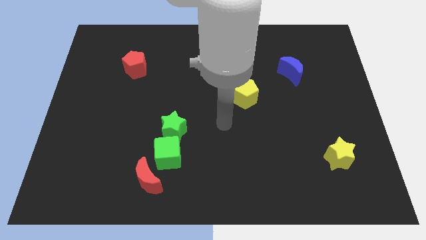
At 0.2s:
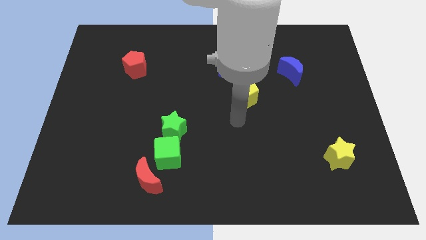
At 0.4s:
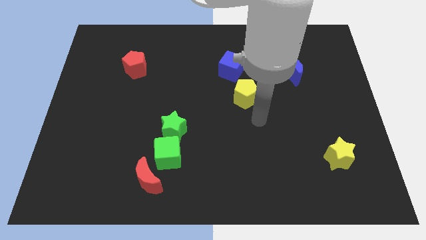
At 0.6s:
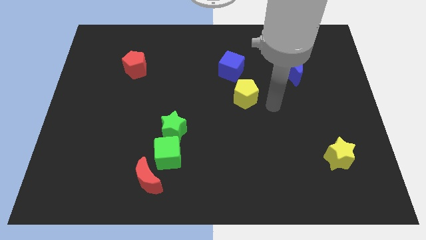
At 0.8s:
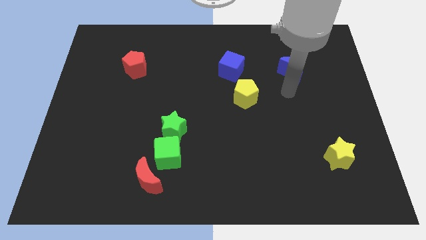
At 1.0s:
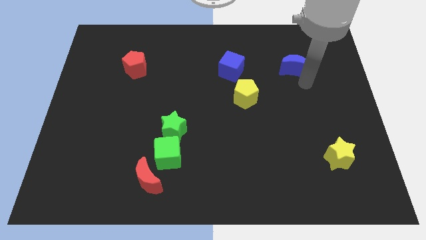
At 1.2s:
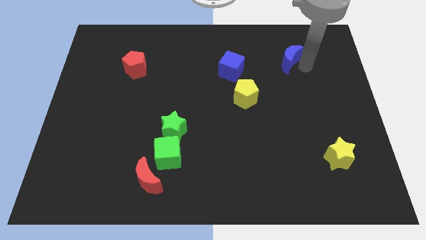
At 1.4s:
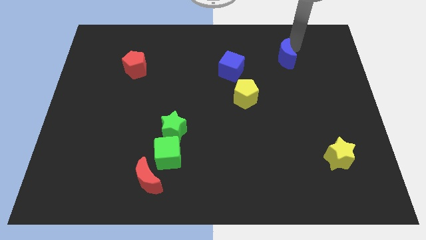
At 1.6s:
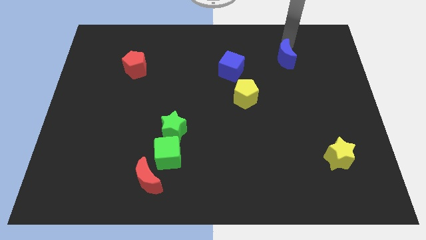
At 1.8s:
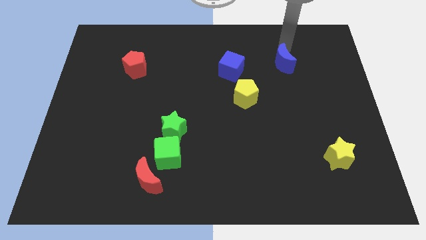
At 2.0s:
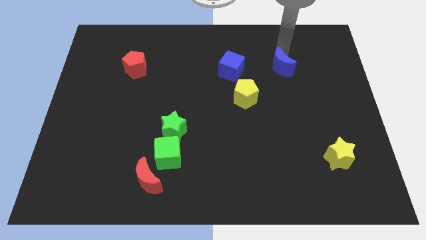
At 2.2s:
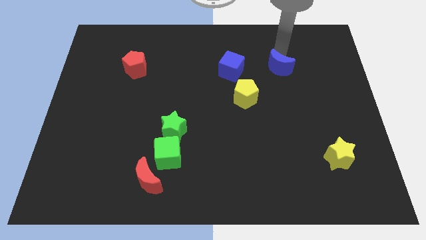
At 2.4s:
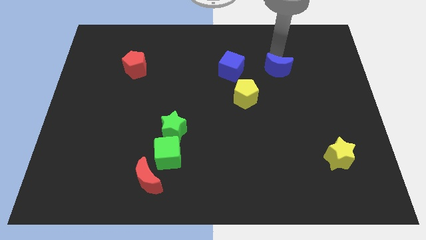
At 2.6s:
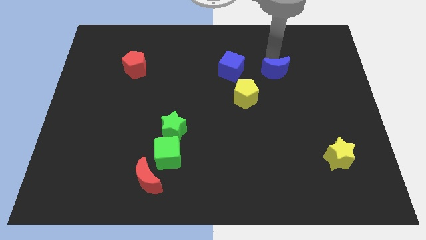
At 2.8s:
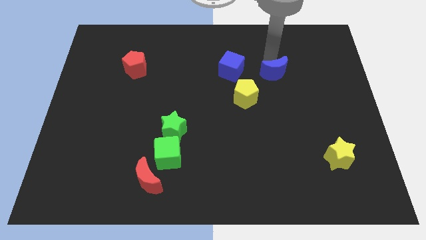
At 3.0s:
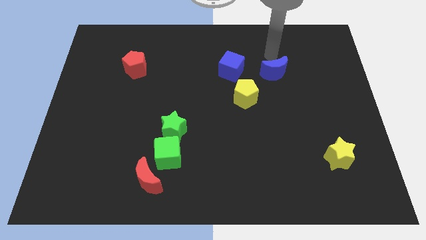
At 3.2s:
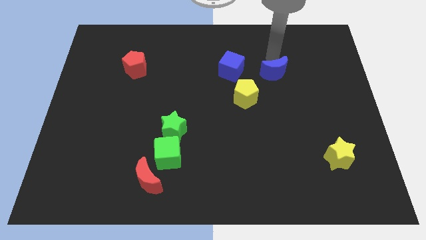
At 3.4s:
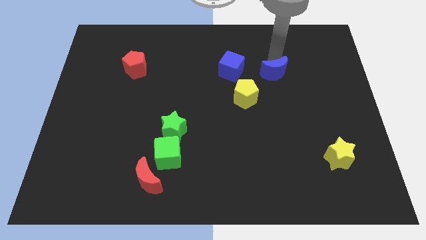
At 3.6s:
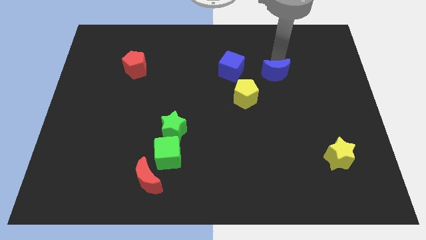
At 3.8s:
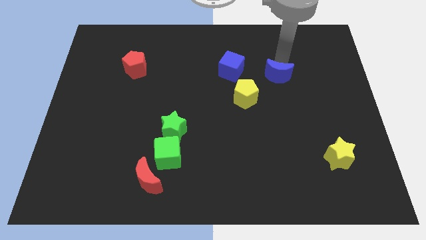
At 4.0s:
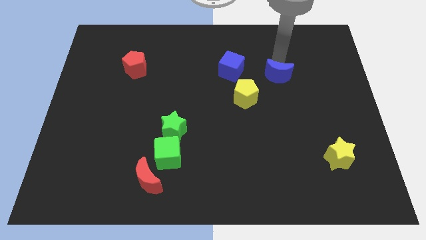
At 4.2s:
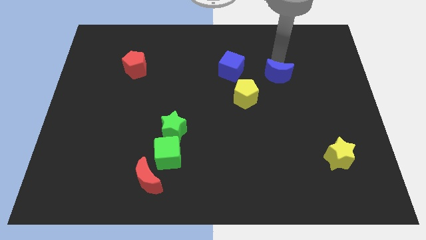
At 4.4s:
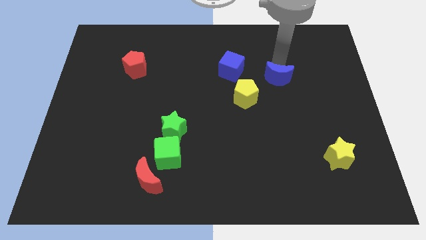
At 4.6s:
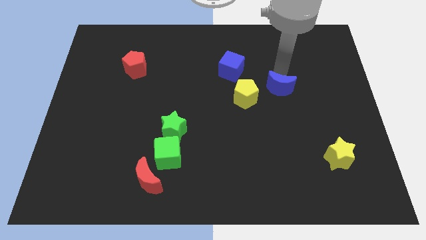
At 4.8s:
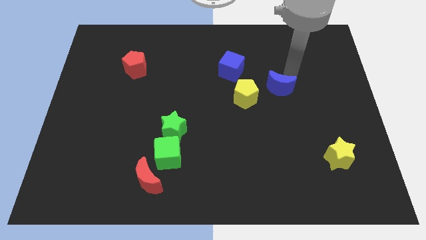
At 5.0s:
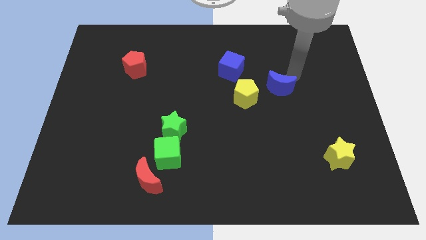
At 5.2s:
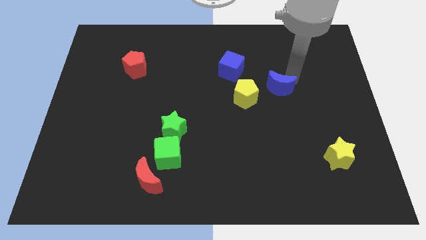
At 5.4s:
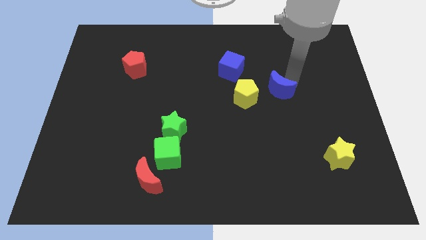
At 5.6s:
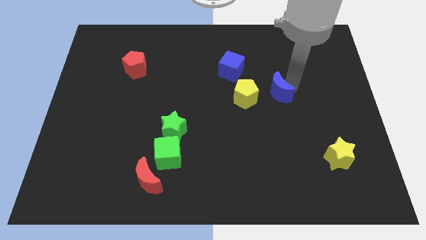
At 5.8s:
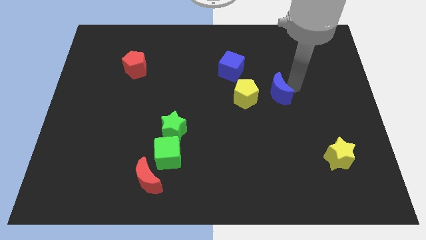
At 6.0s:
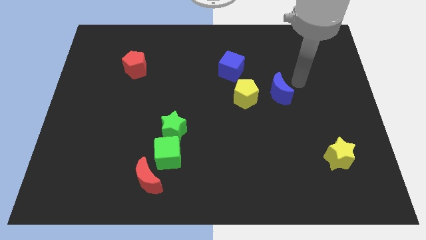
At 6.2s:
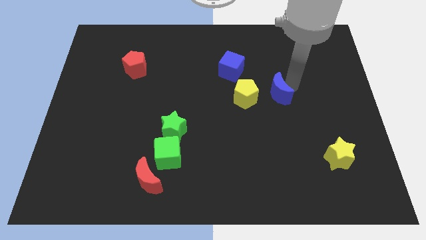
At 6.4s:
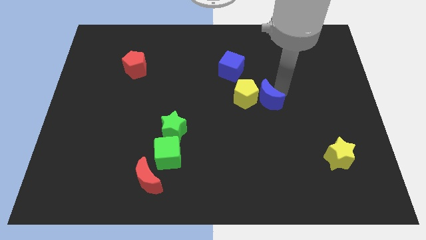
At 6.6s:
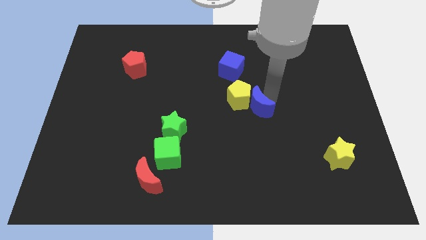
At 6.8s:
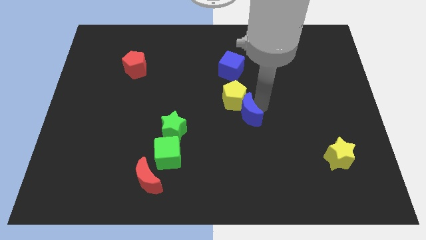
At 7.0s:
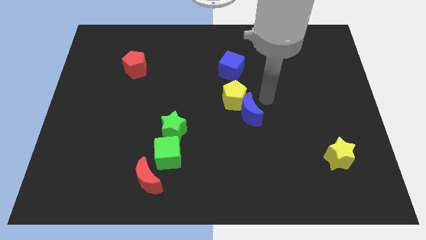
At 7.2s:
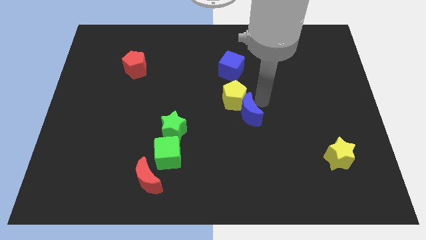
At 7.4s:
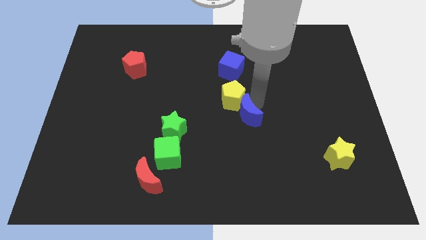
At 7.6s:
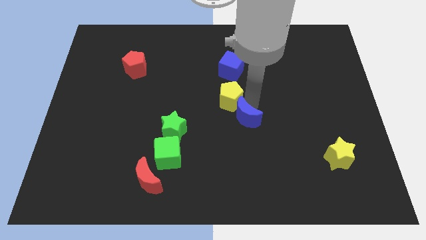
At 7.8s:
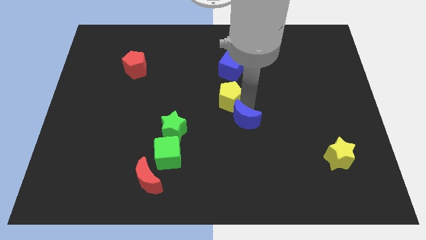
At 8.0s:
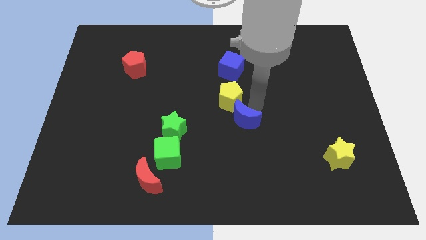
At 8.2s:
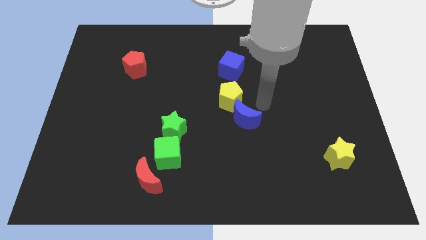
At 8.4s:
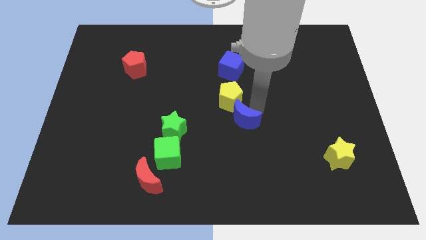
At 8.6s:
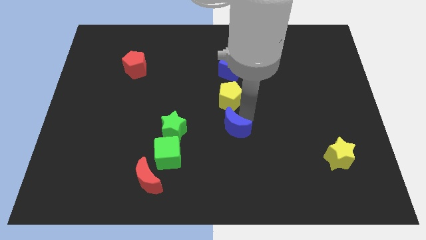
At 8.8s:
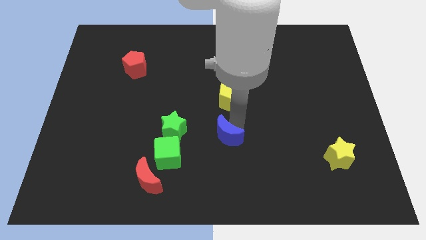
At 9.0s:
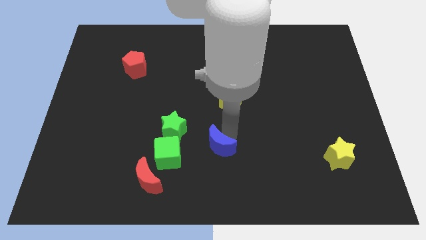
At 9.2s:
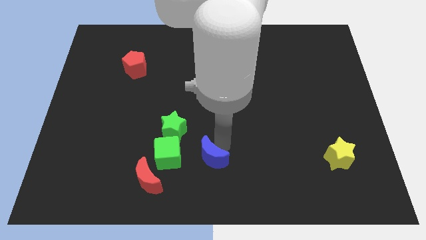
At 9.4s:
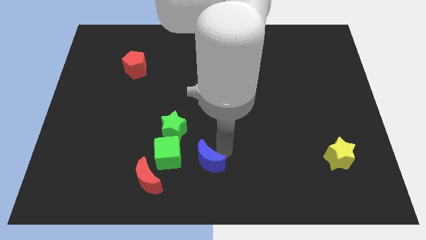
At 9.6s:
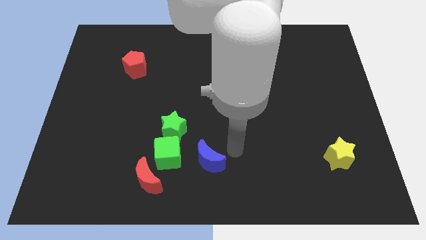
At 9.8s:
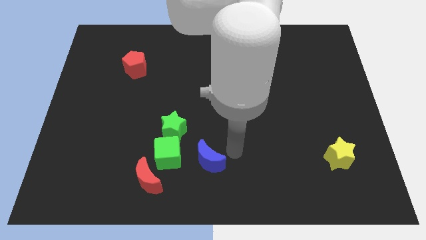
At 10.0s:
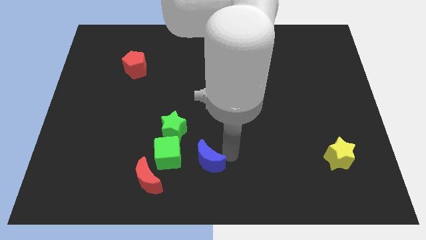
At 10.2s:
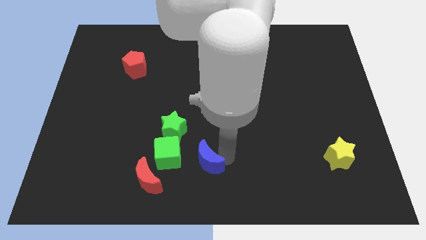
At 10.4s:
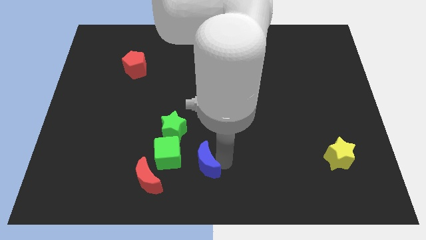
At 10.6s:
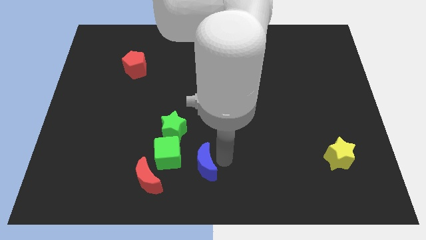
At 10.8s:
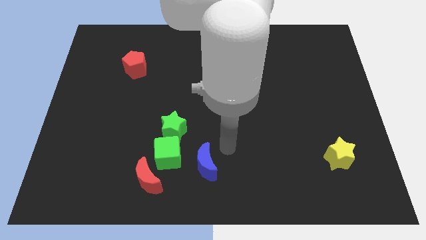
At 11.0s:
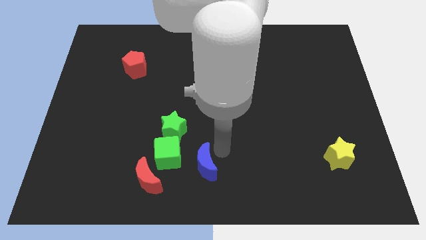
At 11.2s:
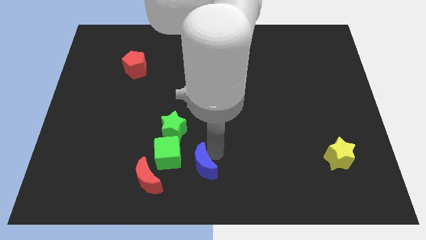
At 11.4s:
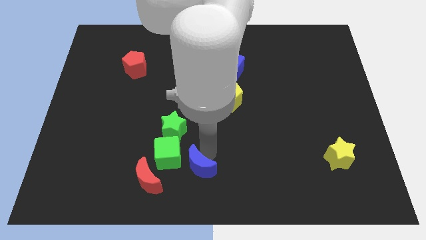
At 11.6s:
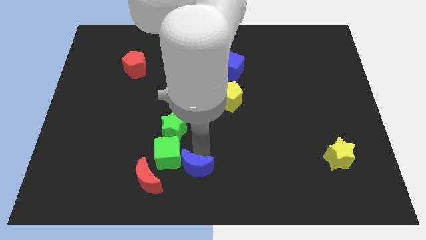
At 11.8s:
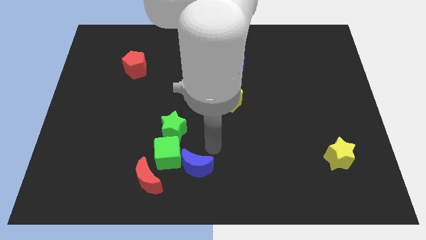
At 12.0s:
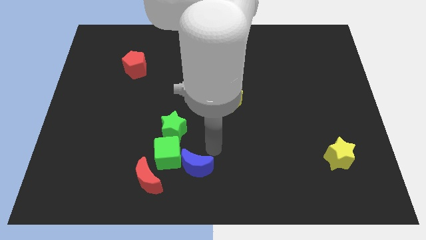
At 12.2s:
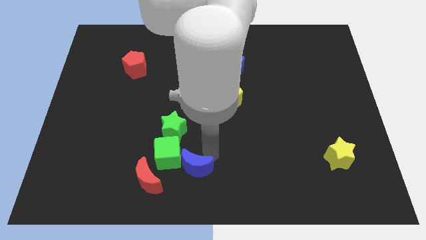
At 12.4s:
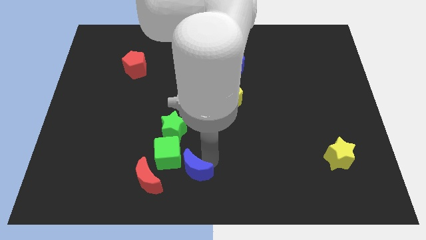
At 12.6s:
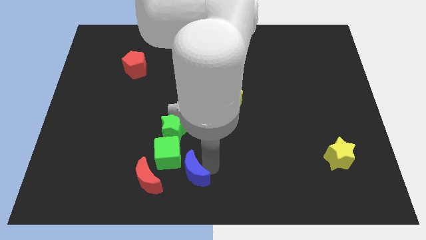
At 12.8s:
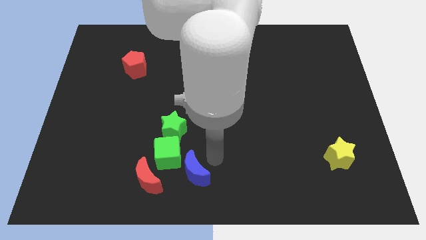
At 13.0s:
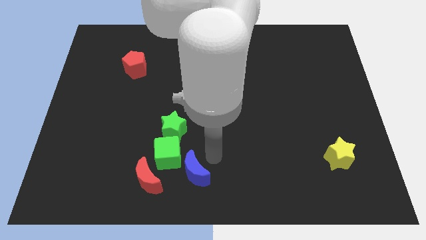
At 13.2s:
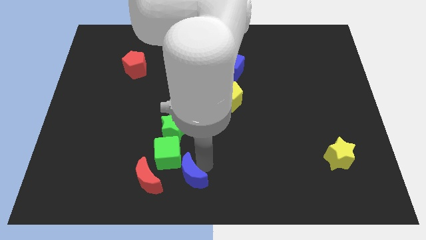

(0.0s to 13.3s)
move the blue moon to the bottom of the green star

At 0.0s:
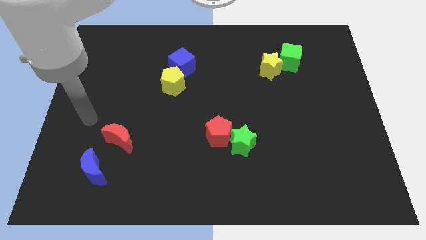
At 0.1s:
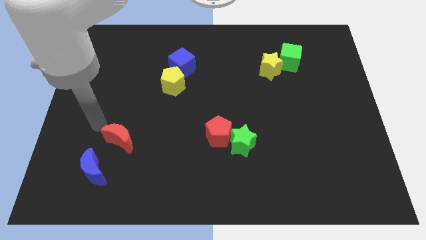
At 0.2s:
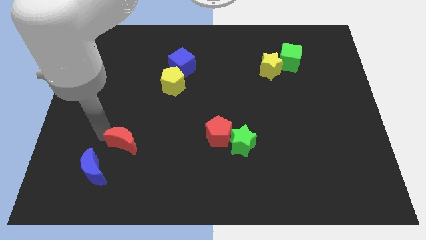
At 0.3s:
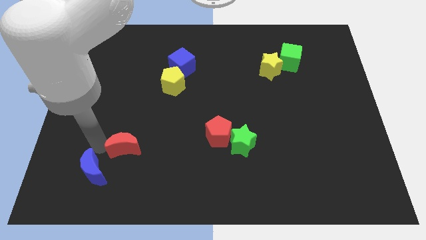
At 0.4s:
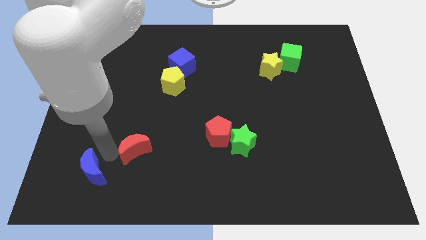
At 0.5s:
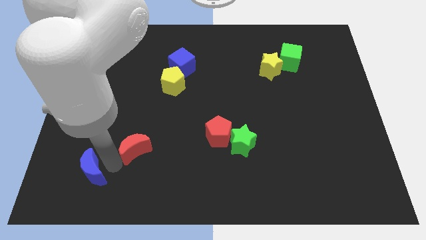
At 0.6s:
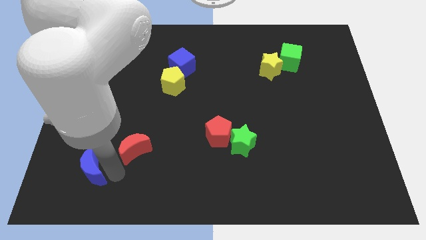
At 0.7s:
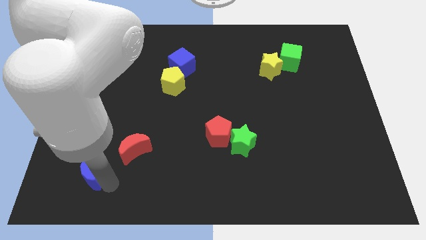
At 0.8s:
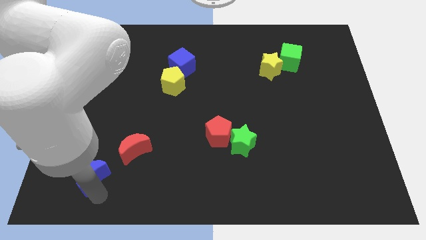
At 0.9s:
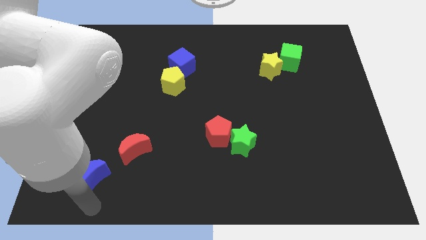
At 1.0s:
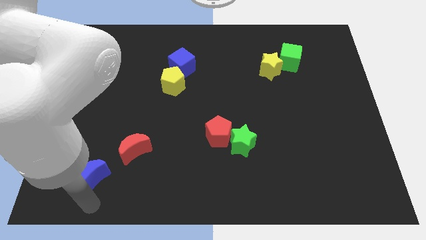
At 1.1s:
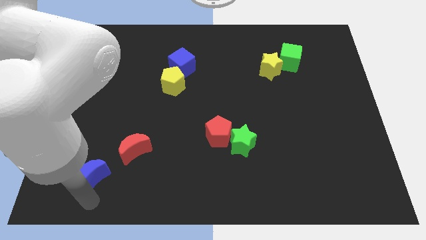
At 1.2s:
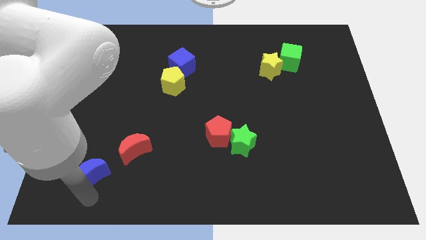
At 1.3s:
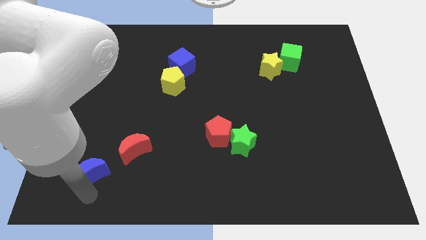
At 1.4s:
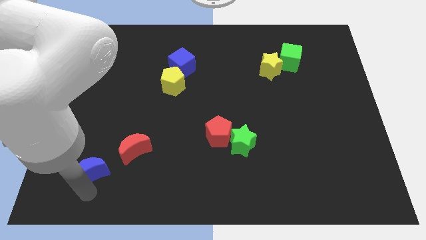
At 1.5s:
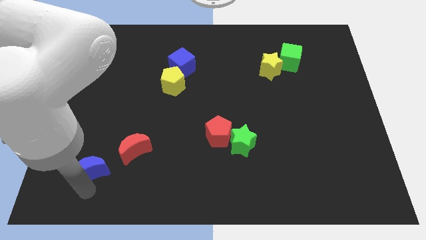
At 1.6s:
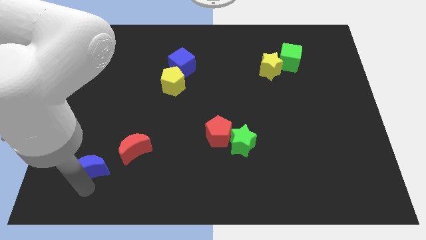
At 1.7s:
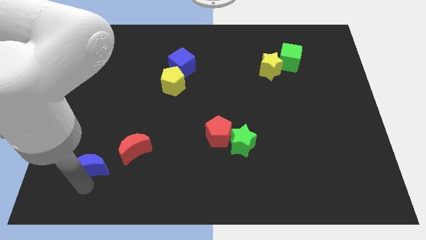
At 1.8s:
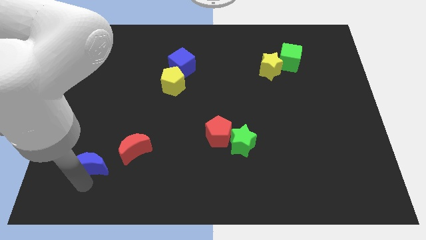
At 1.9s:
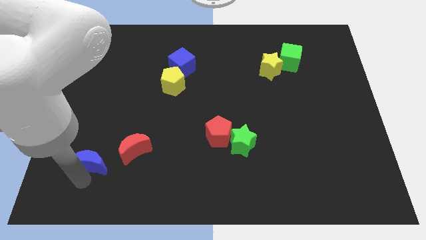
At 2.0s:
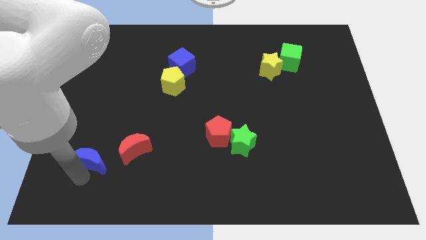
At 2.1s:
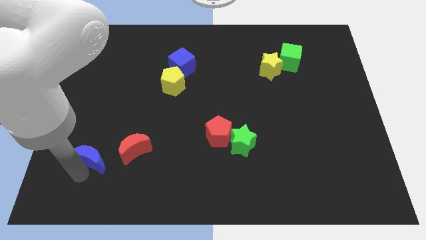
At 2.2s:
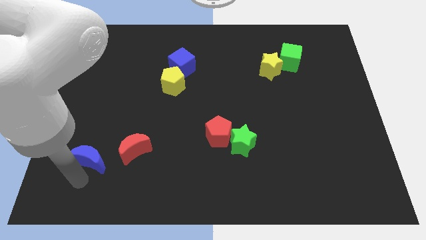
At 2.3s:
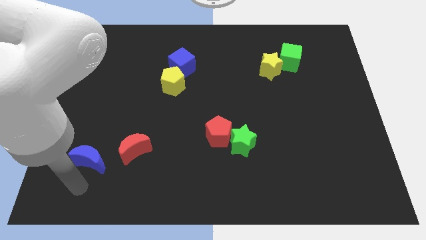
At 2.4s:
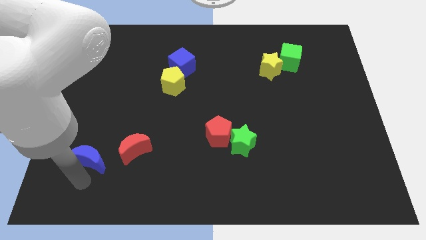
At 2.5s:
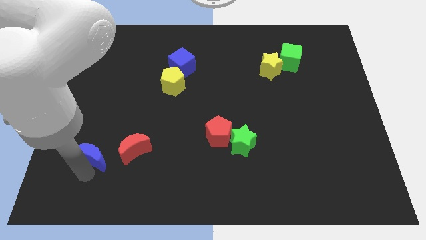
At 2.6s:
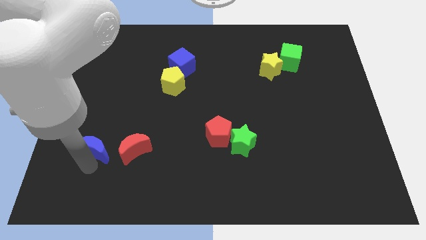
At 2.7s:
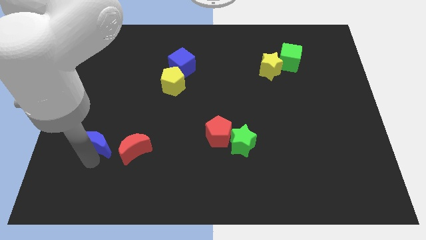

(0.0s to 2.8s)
move the blue moon diagonally up and to the left of the red moon
